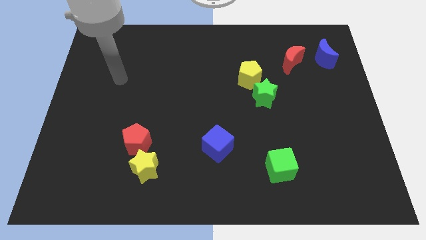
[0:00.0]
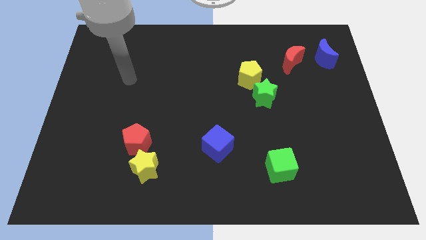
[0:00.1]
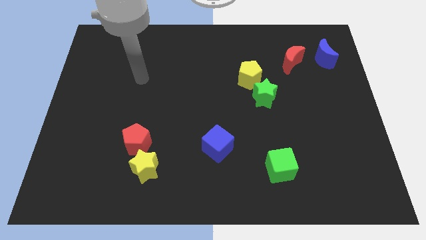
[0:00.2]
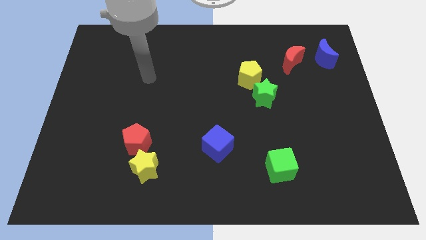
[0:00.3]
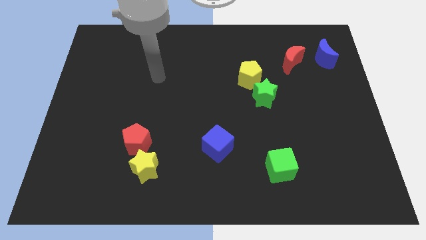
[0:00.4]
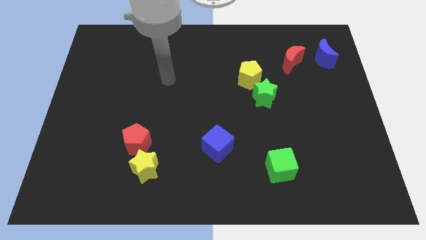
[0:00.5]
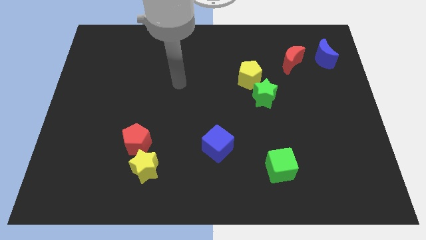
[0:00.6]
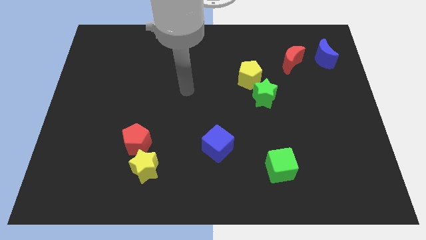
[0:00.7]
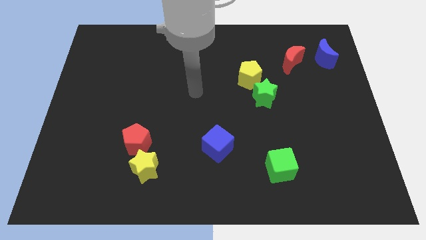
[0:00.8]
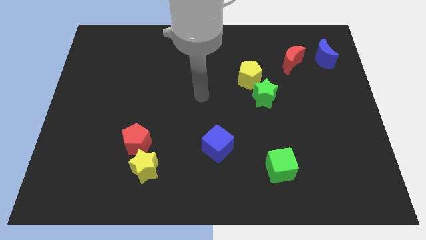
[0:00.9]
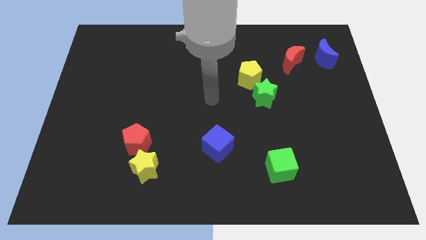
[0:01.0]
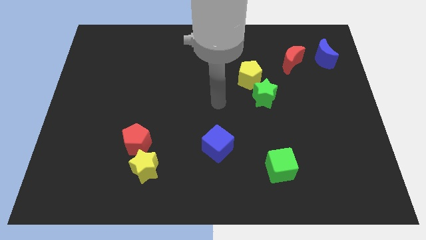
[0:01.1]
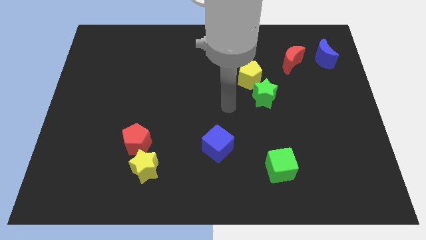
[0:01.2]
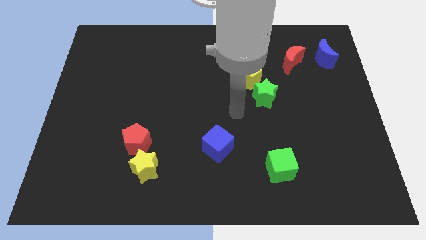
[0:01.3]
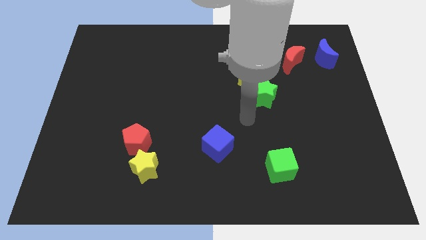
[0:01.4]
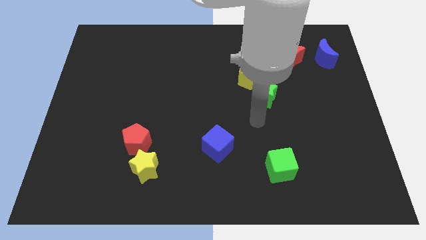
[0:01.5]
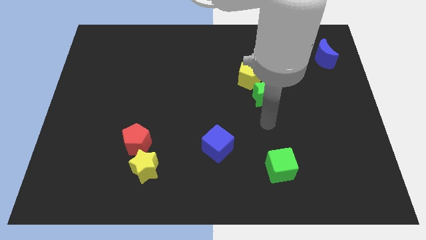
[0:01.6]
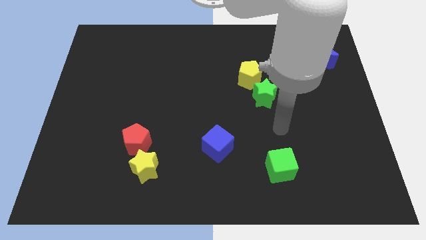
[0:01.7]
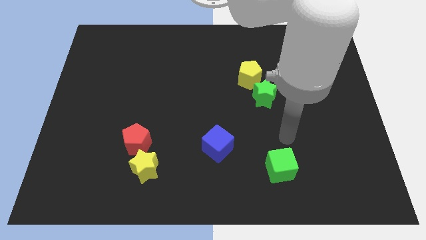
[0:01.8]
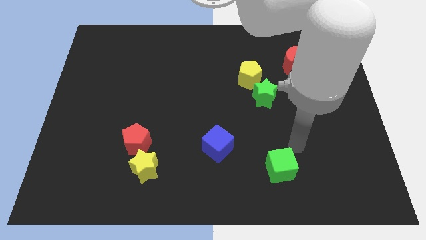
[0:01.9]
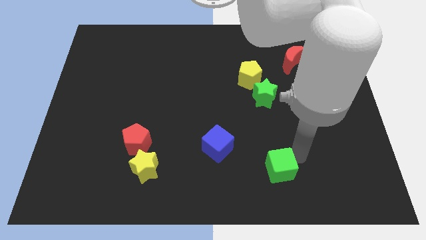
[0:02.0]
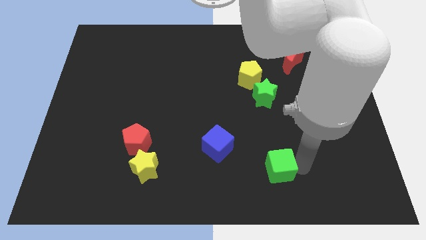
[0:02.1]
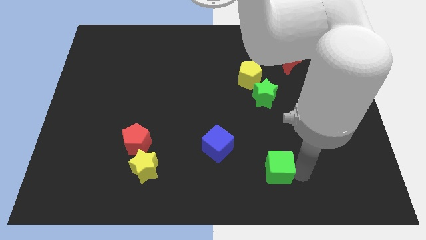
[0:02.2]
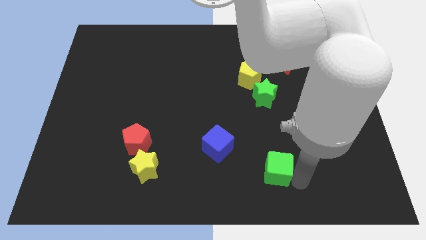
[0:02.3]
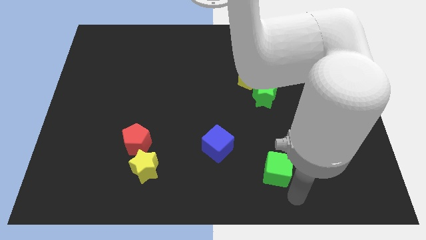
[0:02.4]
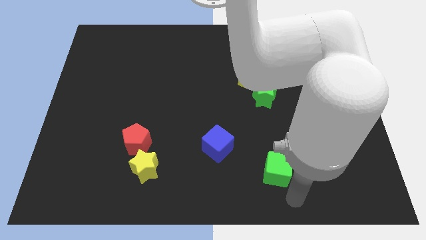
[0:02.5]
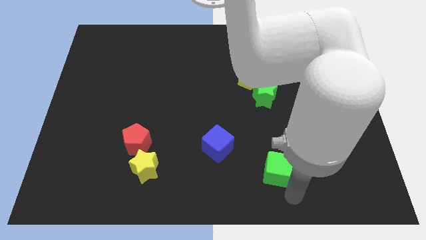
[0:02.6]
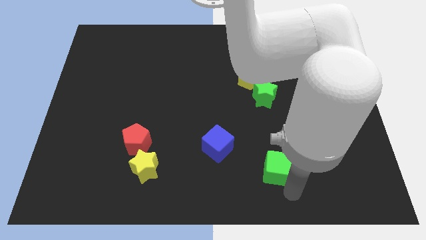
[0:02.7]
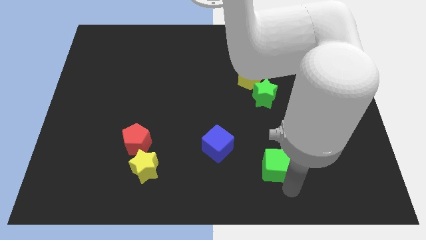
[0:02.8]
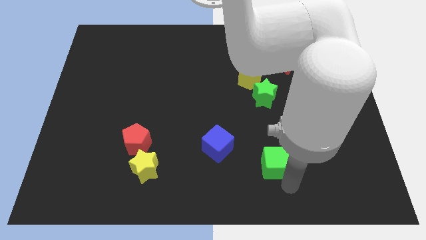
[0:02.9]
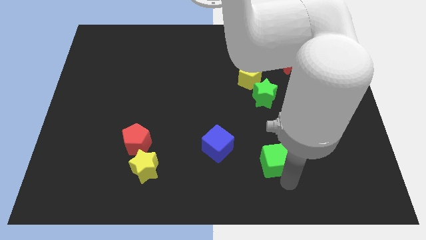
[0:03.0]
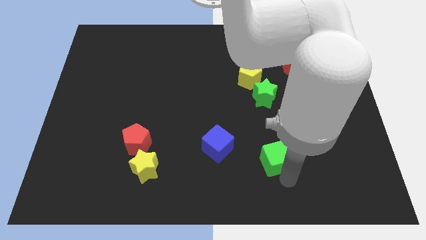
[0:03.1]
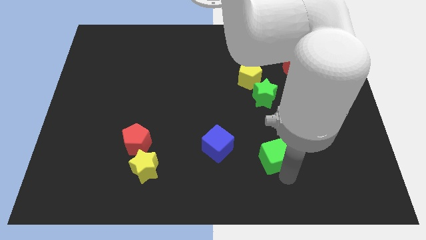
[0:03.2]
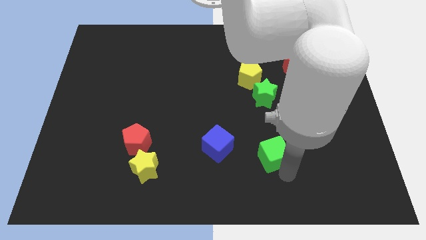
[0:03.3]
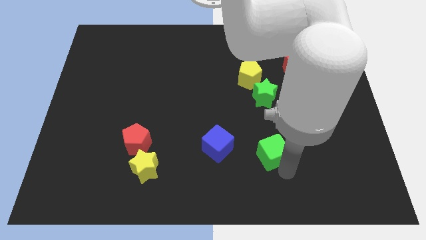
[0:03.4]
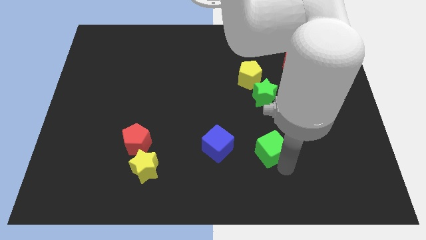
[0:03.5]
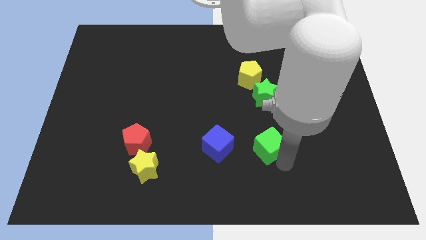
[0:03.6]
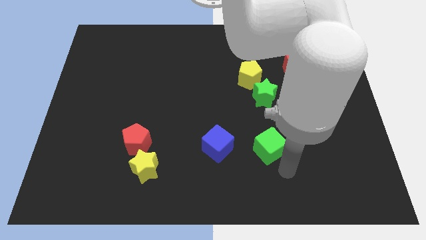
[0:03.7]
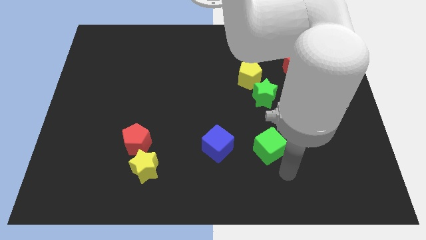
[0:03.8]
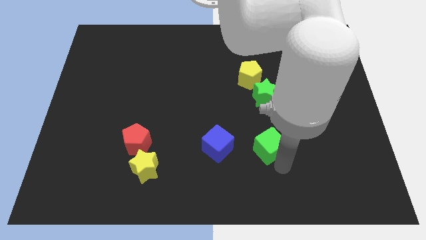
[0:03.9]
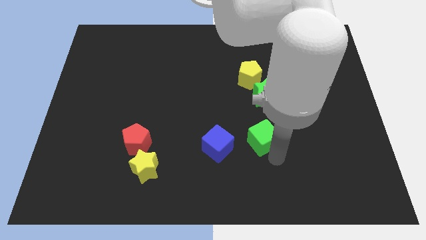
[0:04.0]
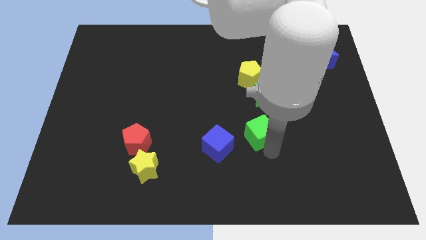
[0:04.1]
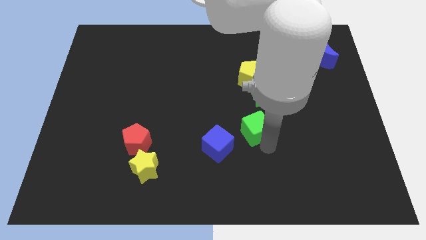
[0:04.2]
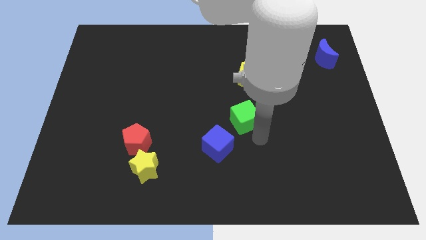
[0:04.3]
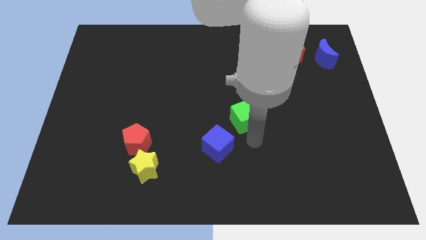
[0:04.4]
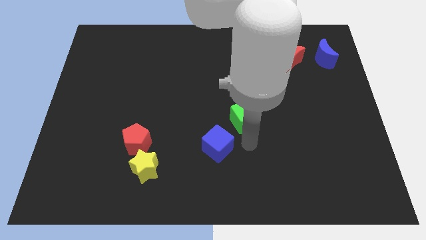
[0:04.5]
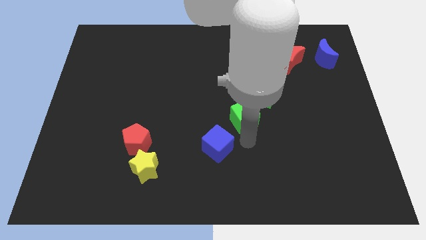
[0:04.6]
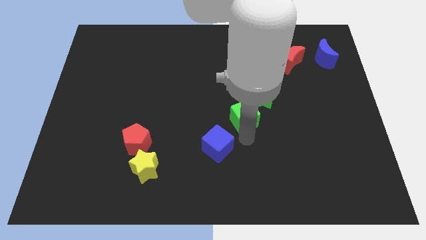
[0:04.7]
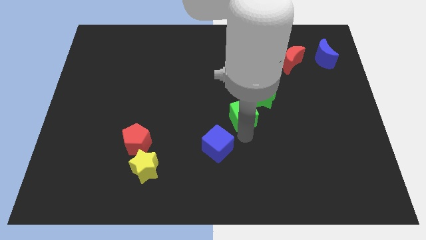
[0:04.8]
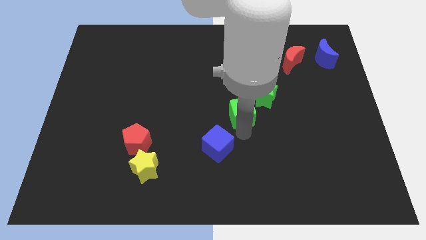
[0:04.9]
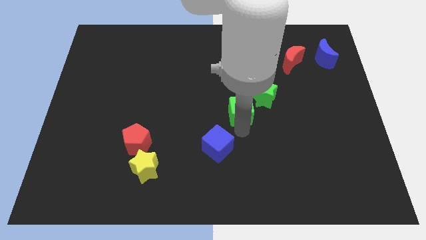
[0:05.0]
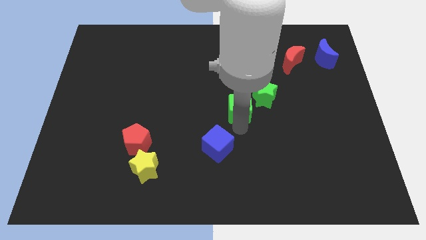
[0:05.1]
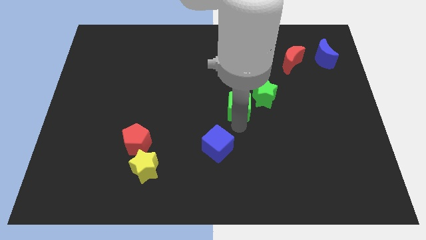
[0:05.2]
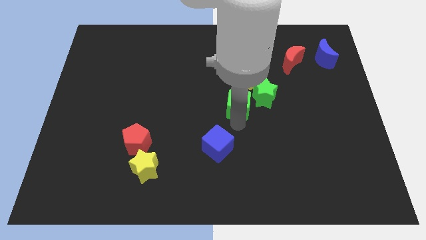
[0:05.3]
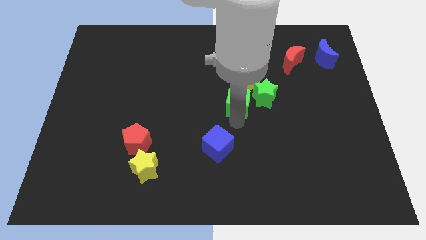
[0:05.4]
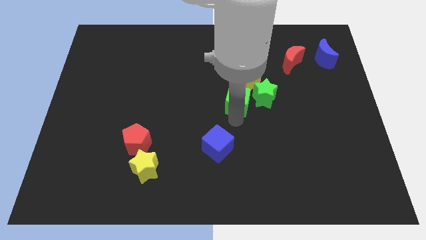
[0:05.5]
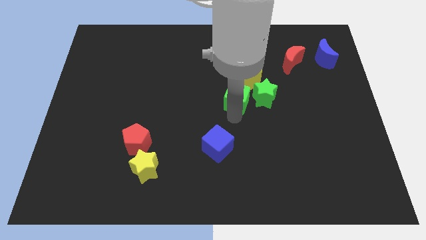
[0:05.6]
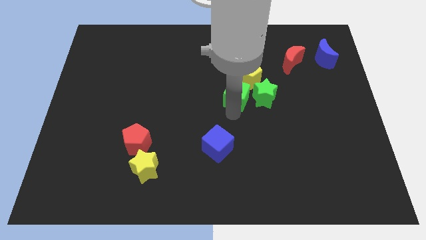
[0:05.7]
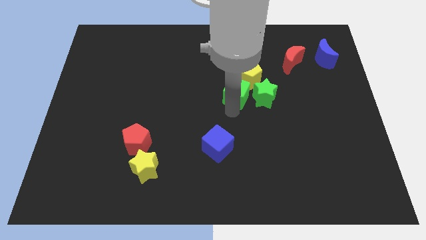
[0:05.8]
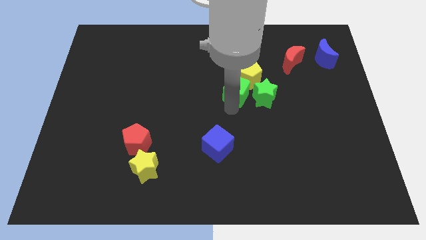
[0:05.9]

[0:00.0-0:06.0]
slide the green cube next to the yellow pentagon

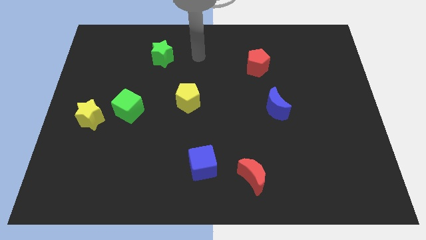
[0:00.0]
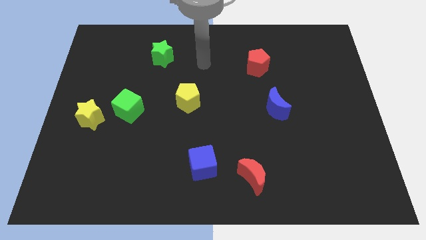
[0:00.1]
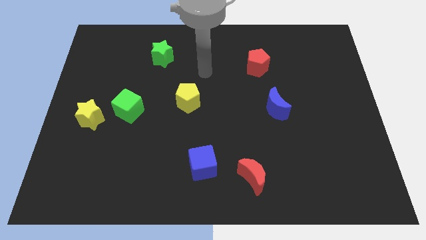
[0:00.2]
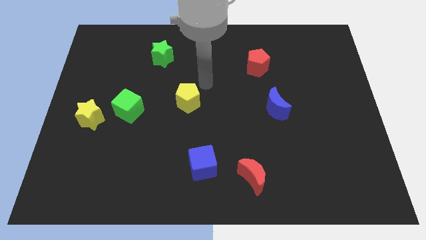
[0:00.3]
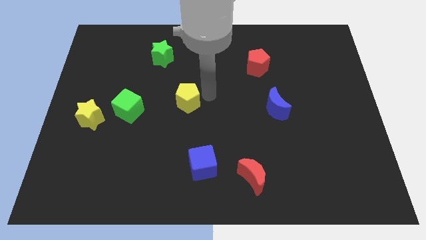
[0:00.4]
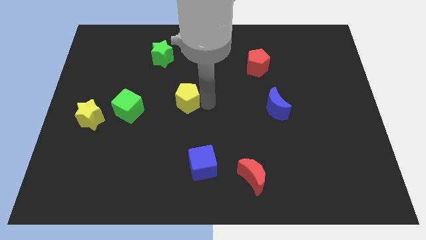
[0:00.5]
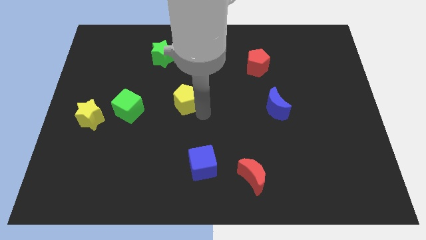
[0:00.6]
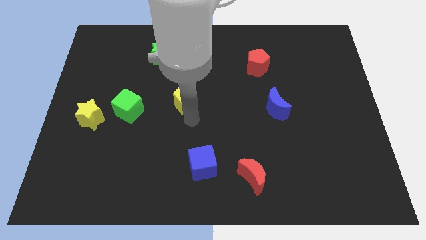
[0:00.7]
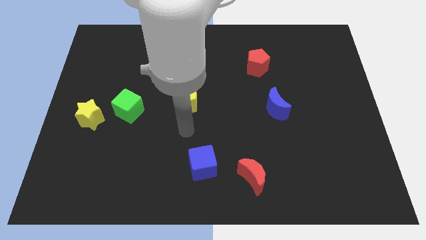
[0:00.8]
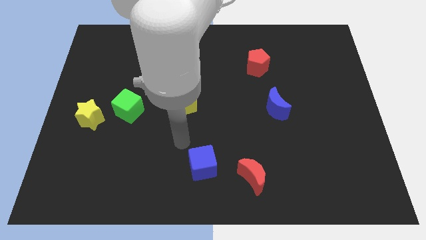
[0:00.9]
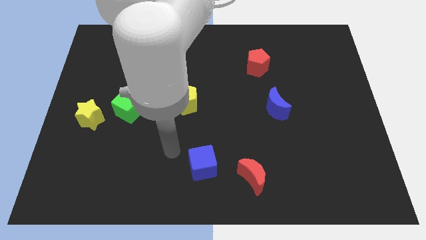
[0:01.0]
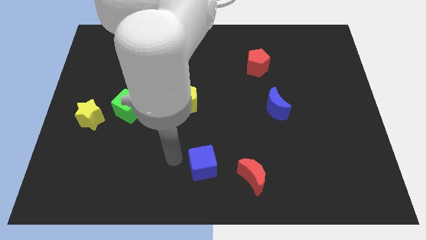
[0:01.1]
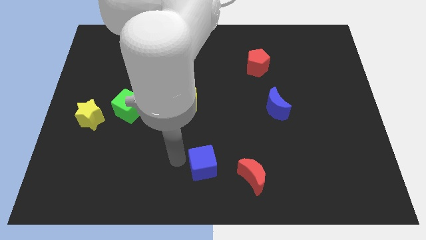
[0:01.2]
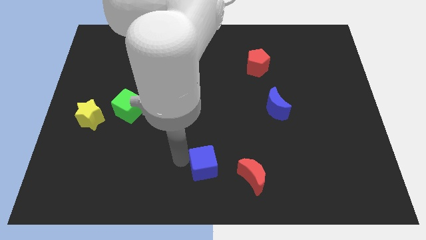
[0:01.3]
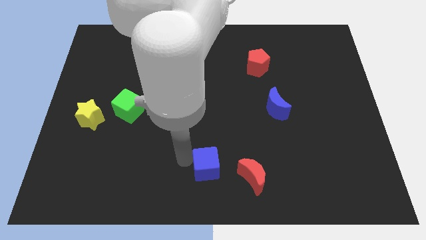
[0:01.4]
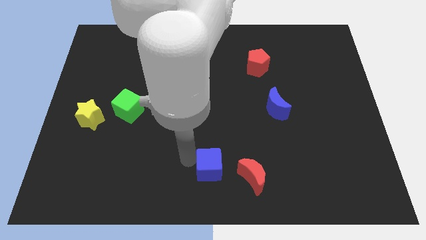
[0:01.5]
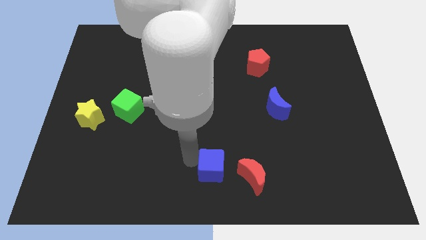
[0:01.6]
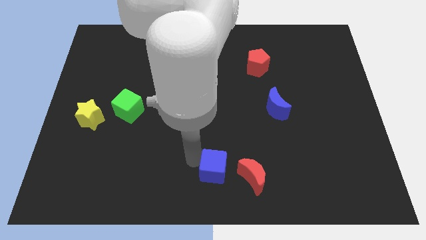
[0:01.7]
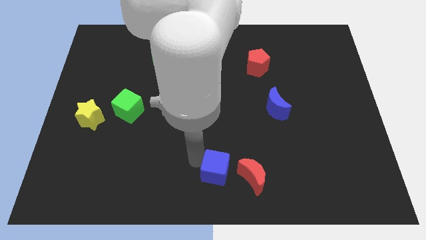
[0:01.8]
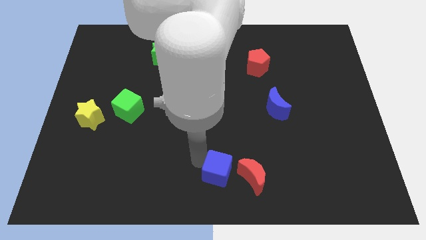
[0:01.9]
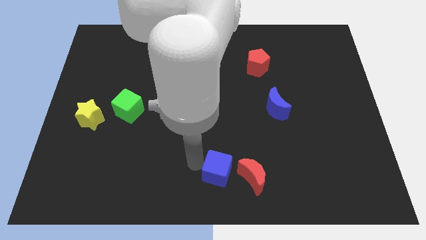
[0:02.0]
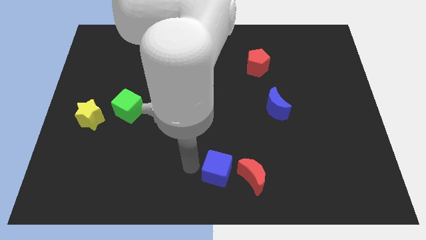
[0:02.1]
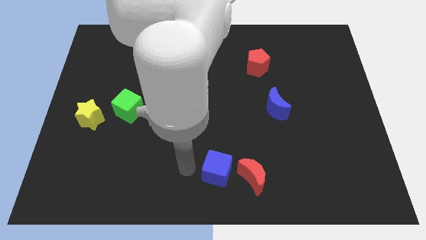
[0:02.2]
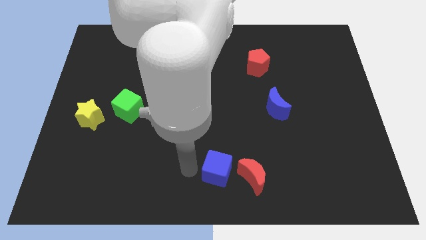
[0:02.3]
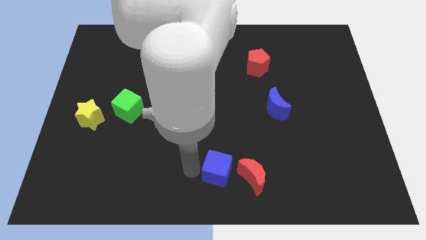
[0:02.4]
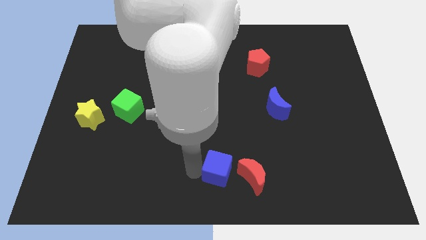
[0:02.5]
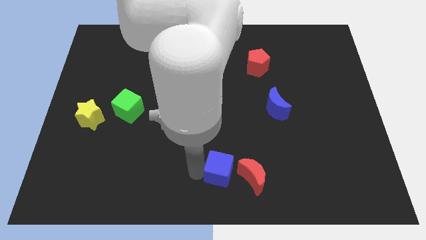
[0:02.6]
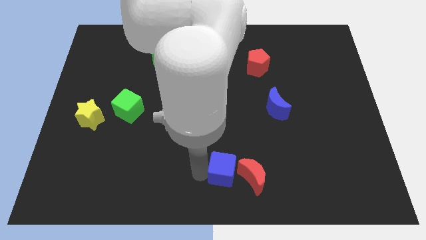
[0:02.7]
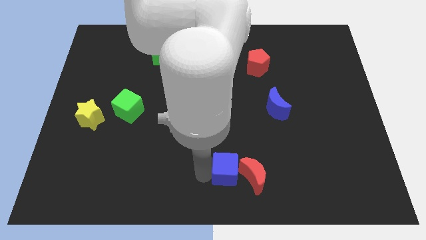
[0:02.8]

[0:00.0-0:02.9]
slide the blue cube next to the red moon
